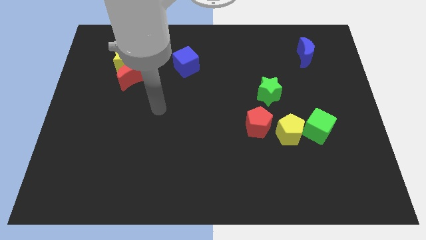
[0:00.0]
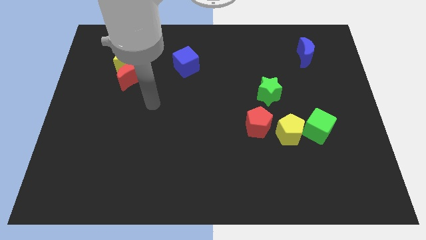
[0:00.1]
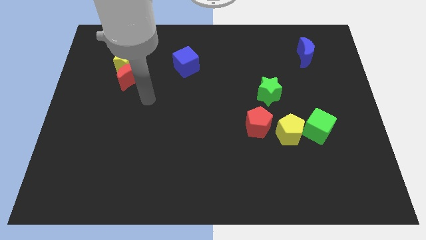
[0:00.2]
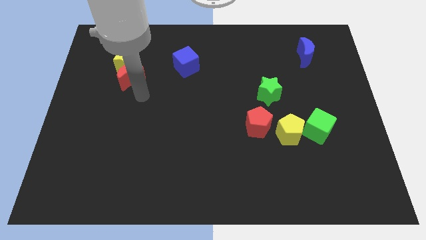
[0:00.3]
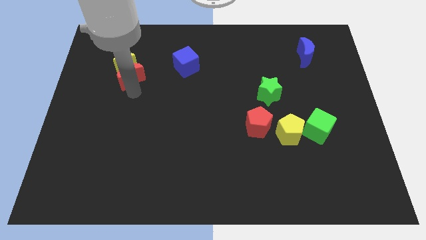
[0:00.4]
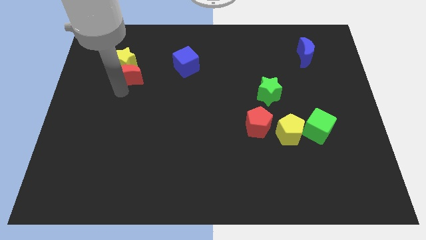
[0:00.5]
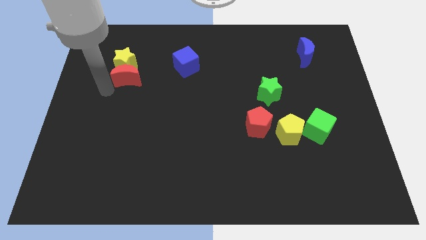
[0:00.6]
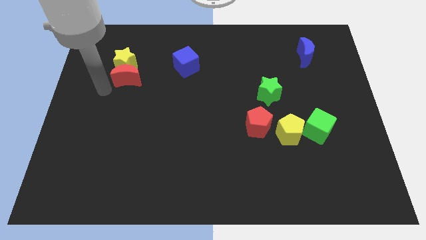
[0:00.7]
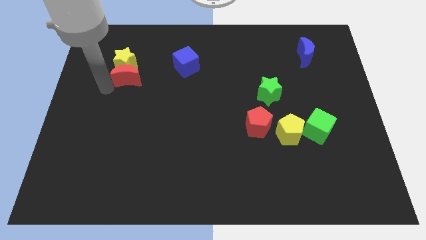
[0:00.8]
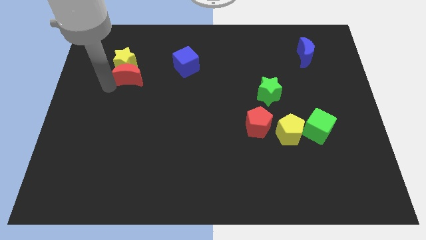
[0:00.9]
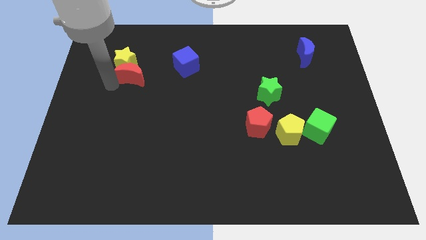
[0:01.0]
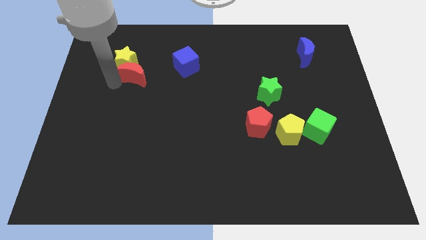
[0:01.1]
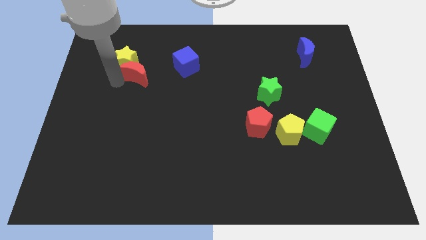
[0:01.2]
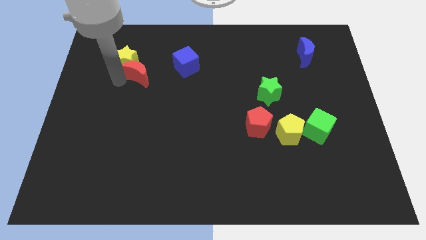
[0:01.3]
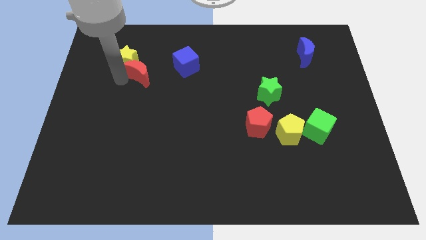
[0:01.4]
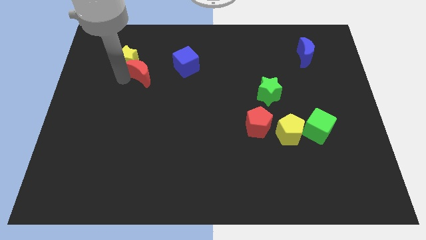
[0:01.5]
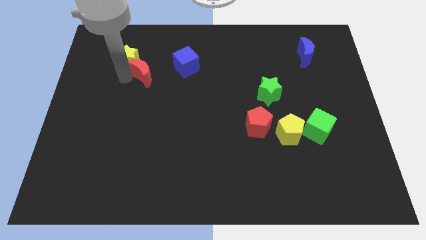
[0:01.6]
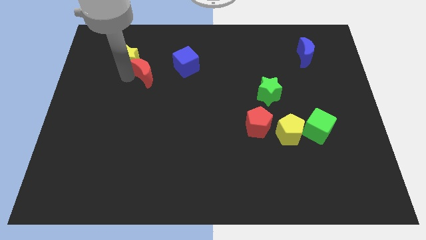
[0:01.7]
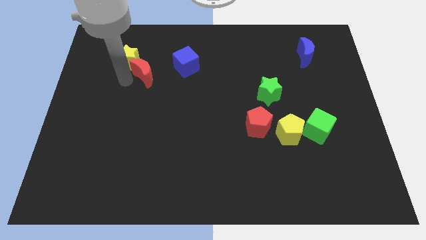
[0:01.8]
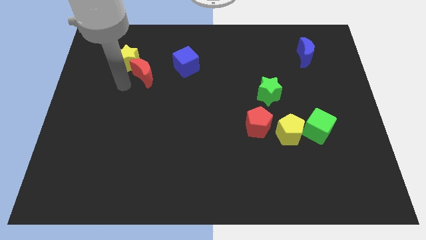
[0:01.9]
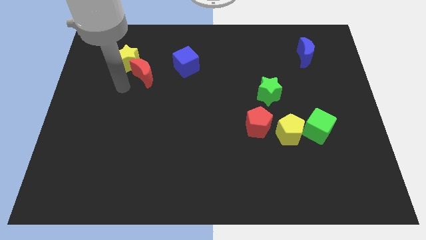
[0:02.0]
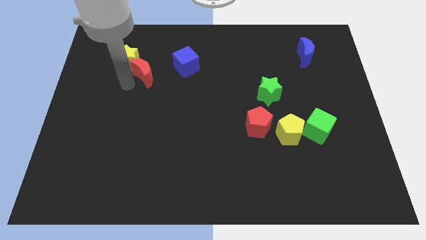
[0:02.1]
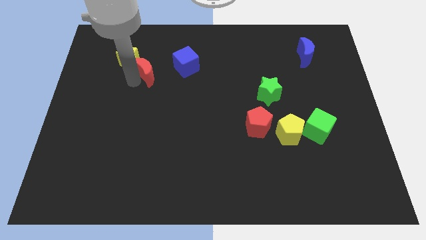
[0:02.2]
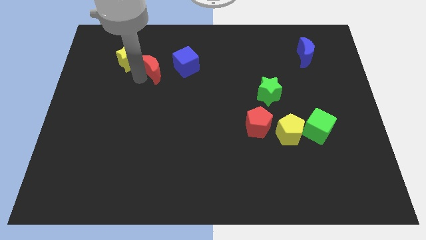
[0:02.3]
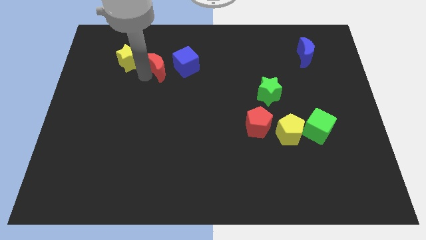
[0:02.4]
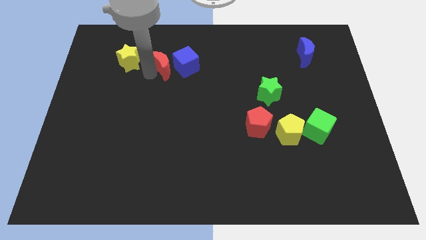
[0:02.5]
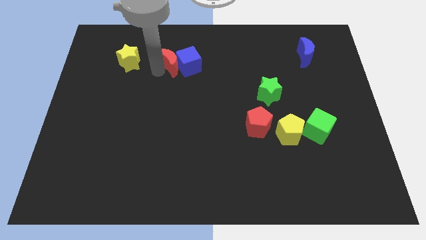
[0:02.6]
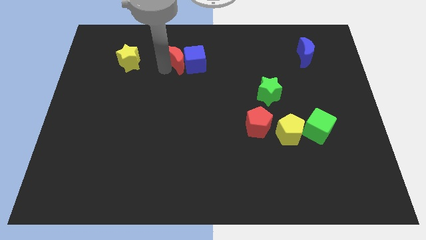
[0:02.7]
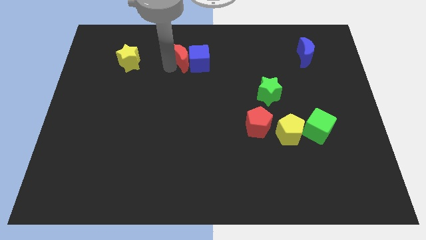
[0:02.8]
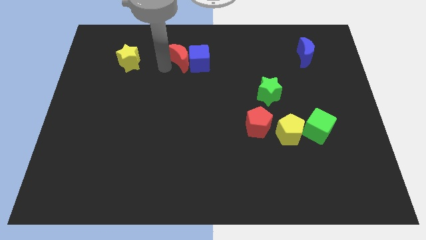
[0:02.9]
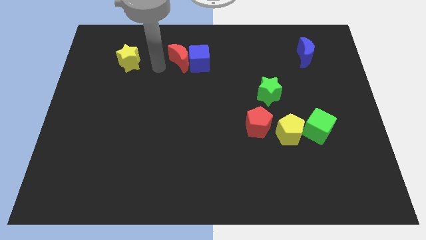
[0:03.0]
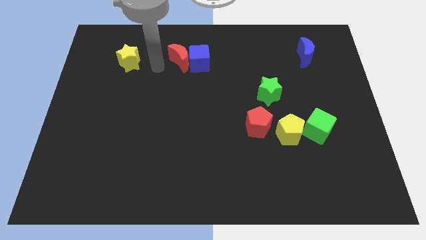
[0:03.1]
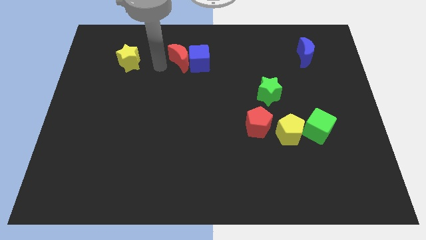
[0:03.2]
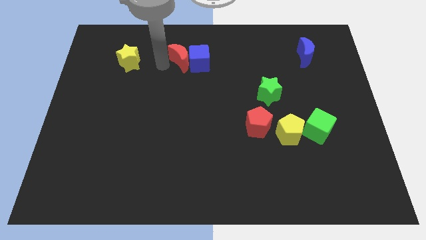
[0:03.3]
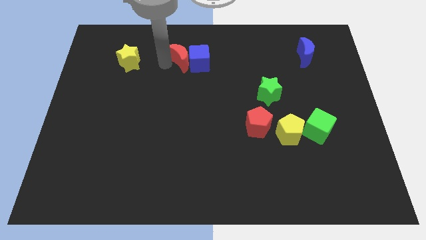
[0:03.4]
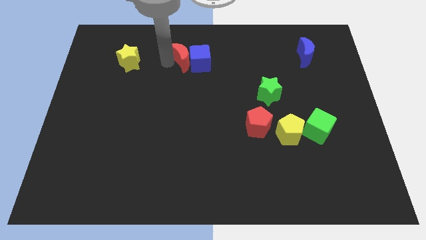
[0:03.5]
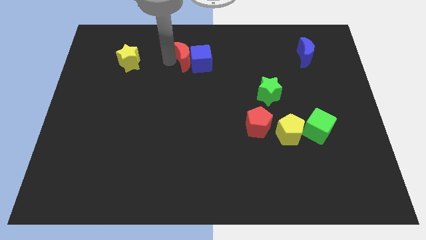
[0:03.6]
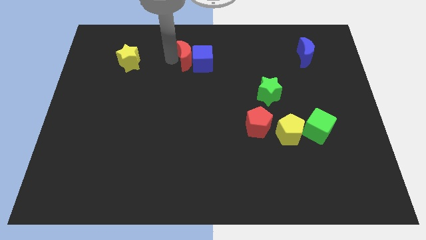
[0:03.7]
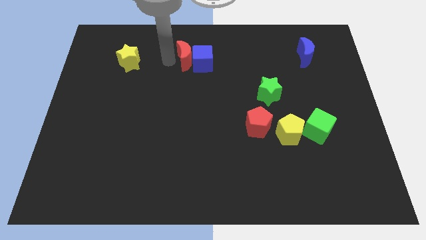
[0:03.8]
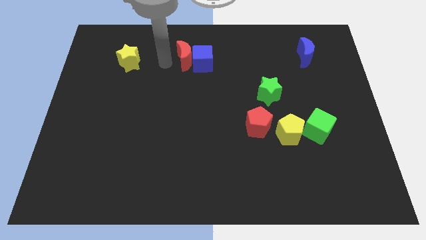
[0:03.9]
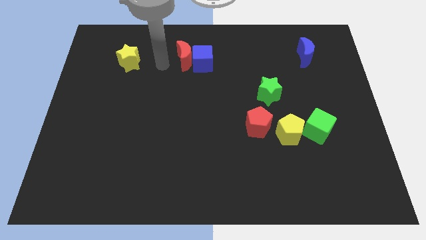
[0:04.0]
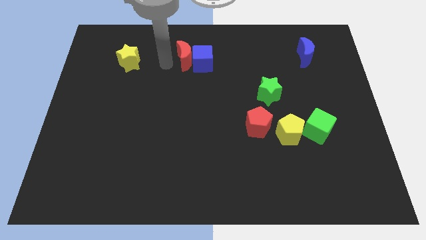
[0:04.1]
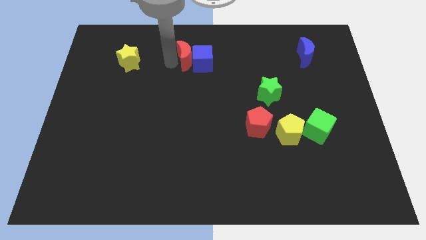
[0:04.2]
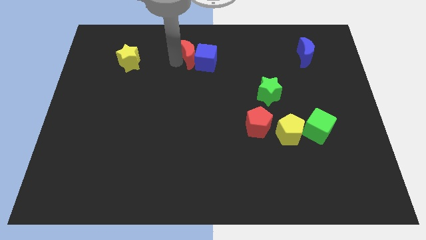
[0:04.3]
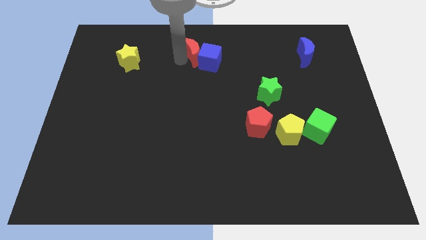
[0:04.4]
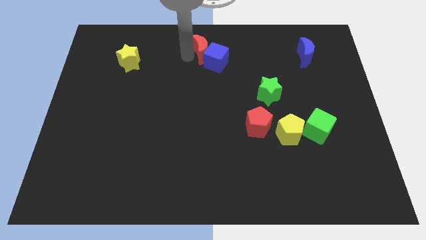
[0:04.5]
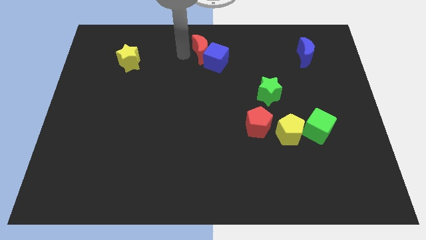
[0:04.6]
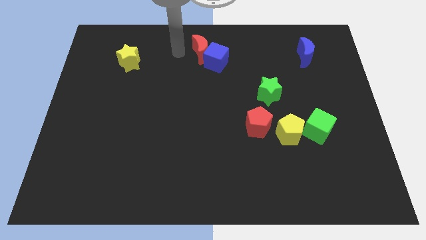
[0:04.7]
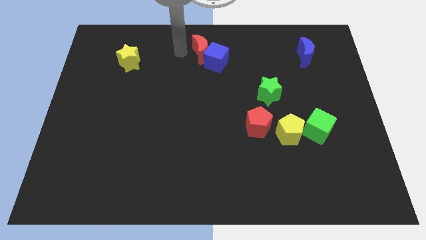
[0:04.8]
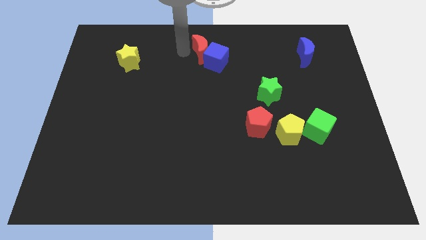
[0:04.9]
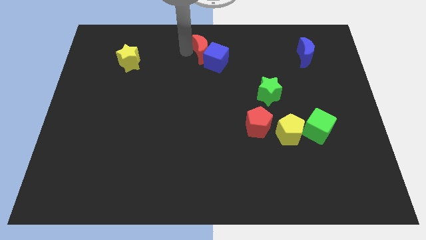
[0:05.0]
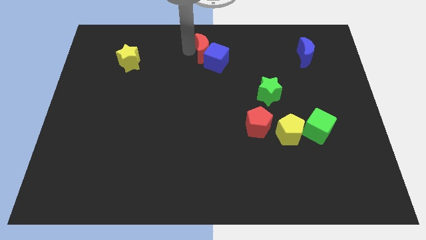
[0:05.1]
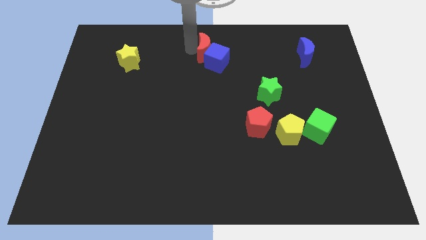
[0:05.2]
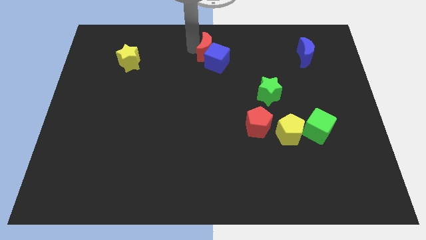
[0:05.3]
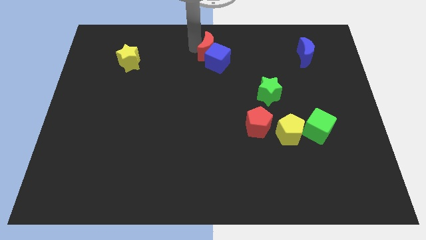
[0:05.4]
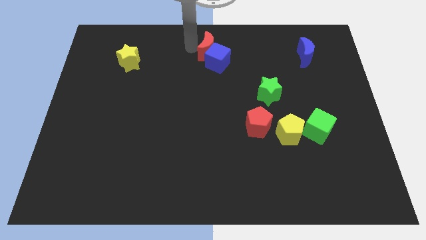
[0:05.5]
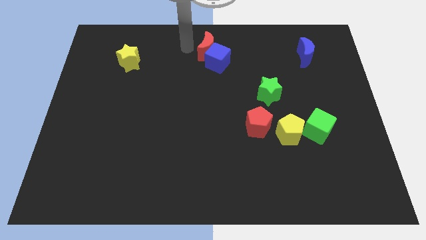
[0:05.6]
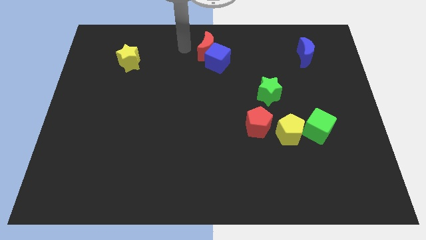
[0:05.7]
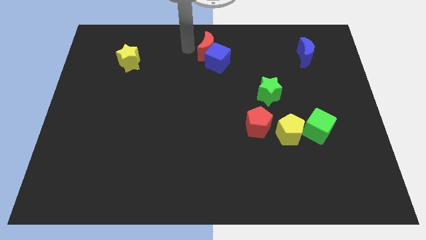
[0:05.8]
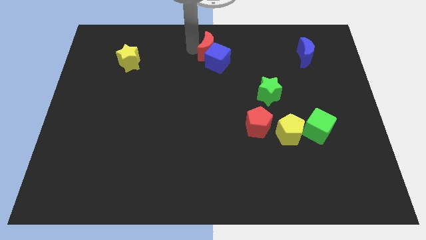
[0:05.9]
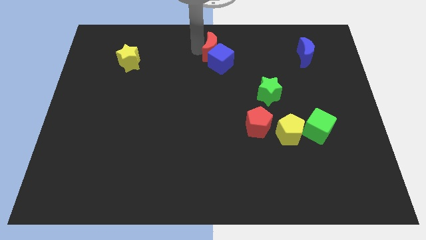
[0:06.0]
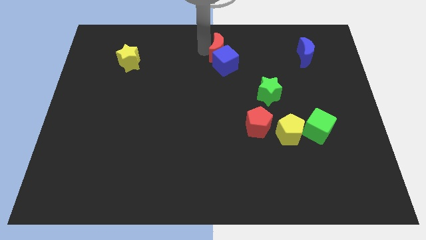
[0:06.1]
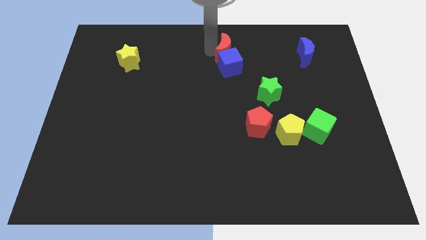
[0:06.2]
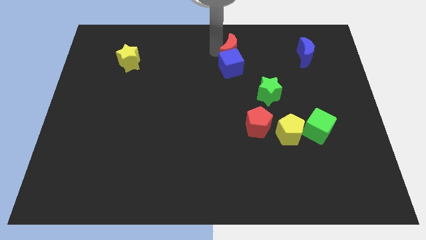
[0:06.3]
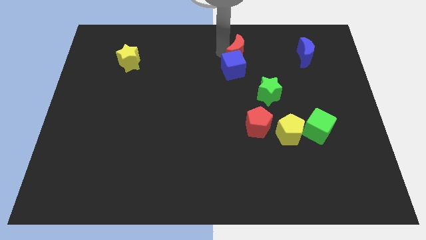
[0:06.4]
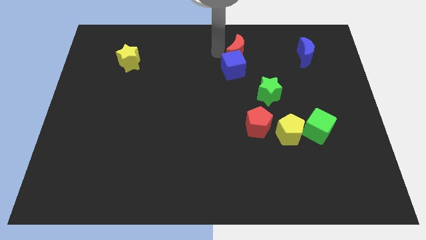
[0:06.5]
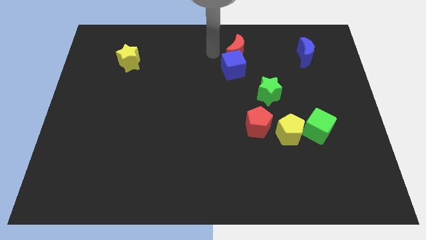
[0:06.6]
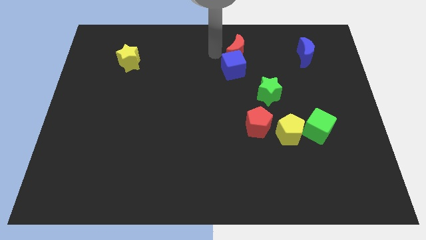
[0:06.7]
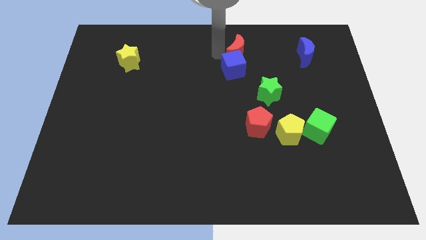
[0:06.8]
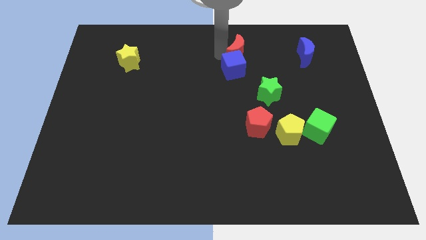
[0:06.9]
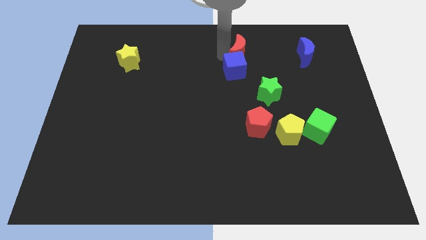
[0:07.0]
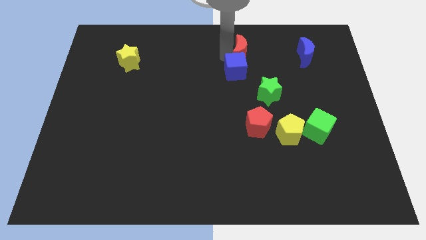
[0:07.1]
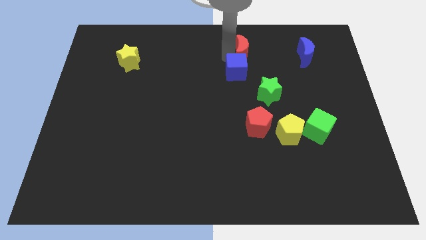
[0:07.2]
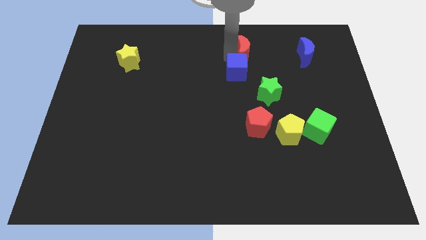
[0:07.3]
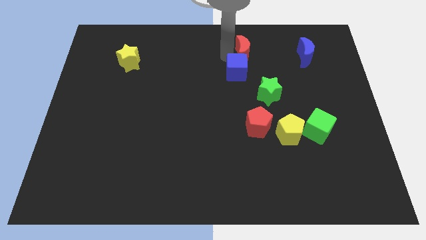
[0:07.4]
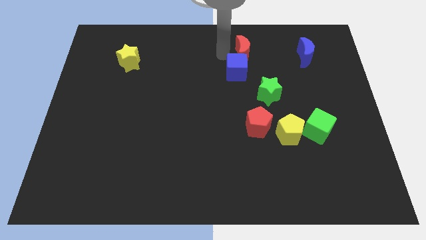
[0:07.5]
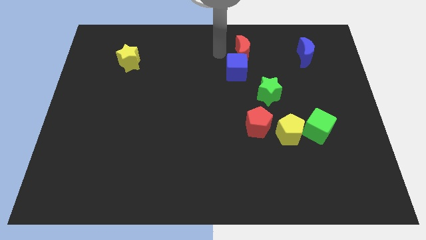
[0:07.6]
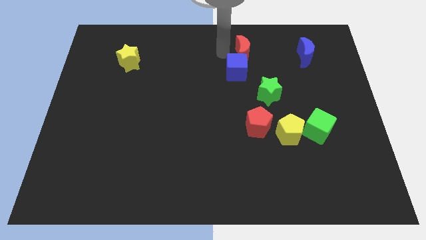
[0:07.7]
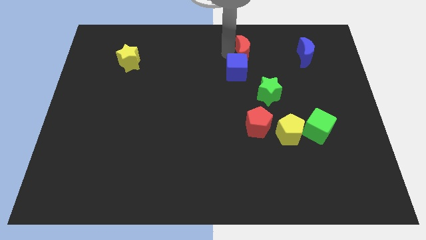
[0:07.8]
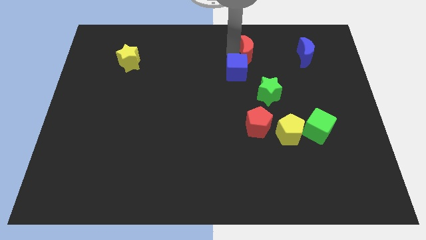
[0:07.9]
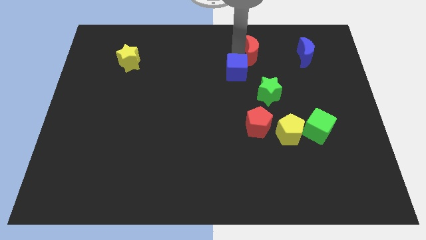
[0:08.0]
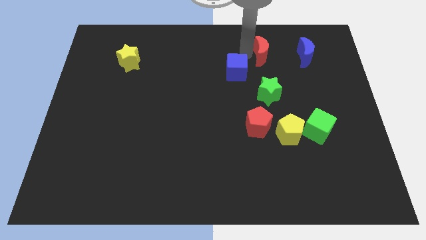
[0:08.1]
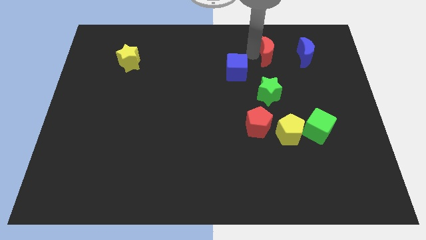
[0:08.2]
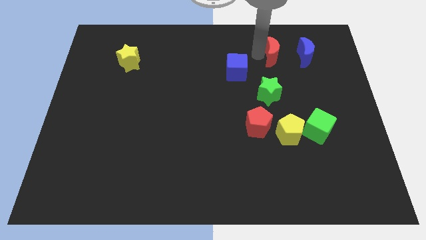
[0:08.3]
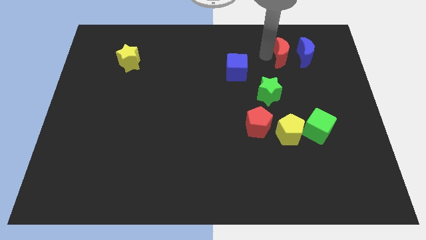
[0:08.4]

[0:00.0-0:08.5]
slide the red moon next to the blue moon
